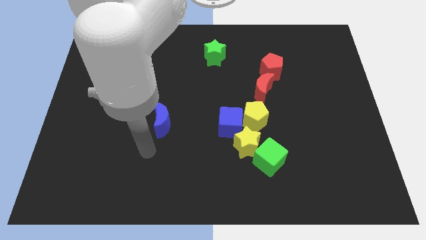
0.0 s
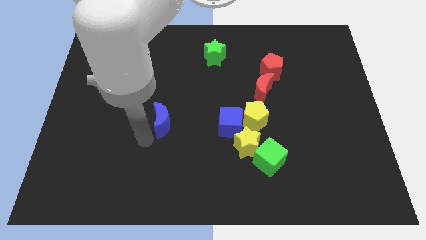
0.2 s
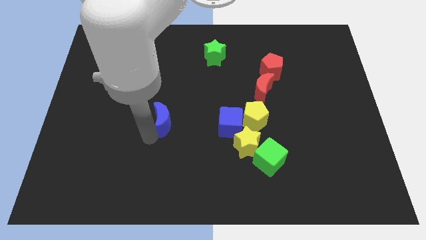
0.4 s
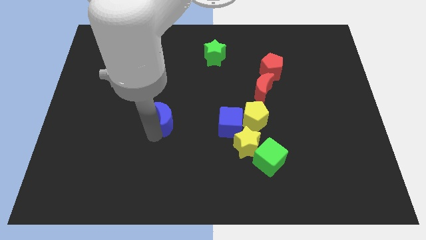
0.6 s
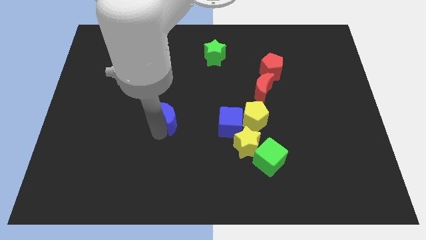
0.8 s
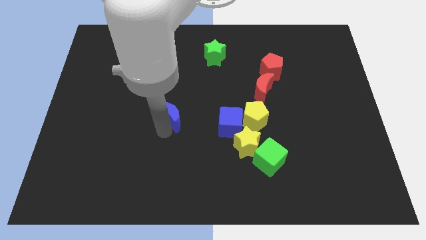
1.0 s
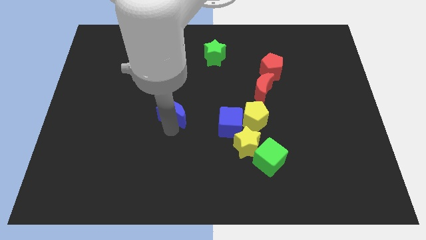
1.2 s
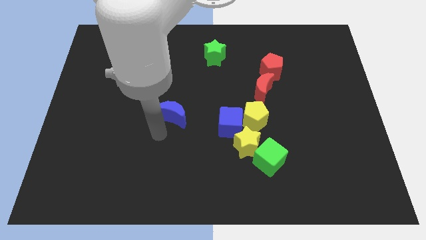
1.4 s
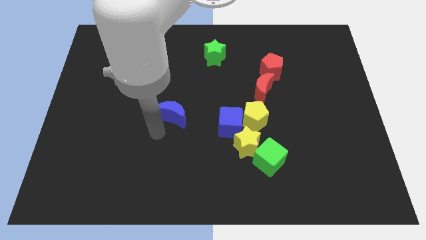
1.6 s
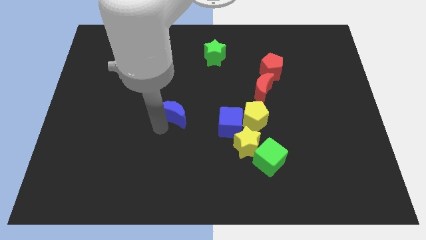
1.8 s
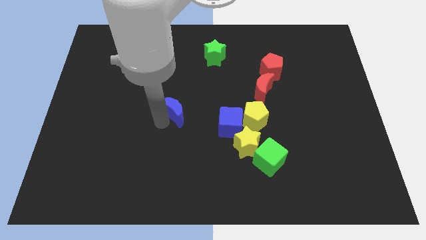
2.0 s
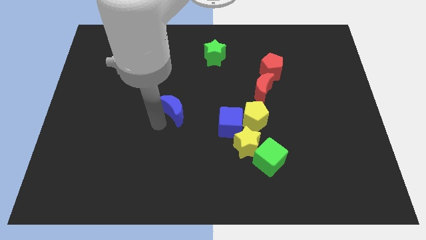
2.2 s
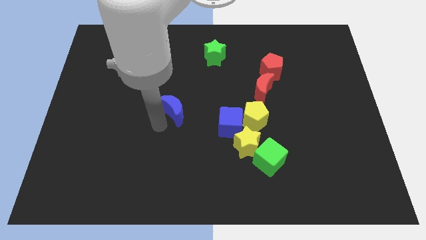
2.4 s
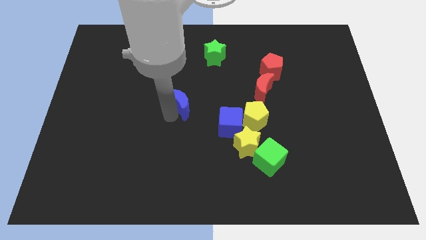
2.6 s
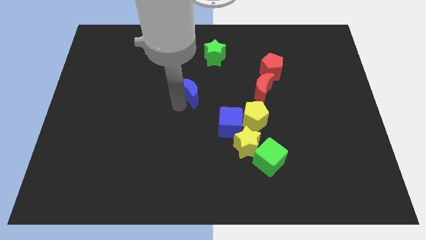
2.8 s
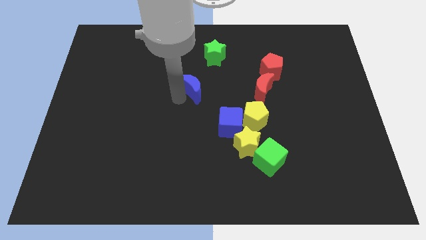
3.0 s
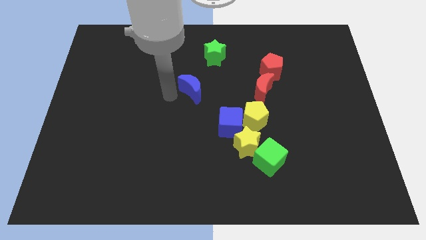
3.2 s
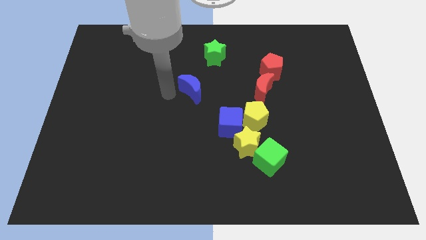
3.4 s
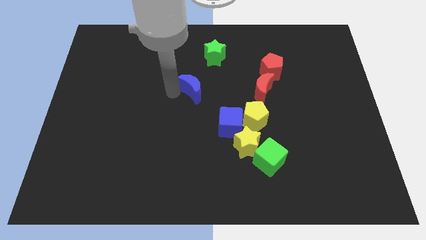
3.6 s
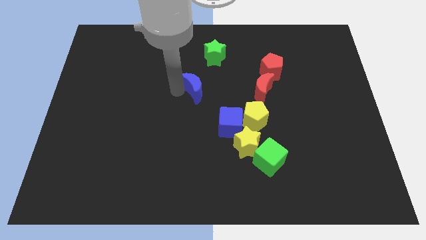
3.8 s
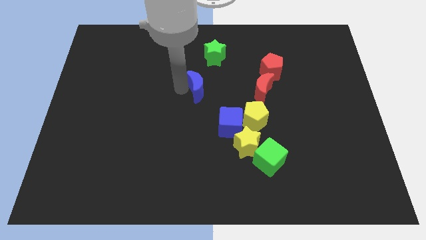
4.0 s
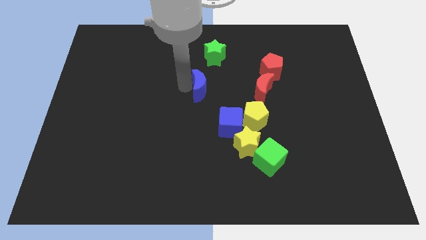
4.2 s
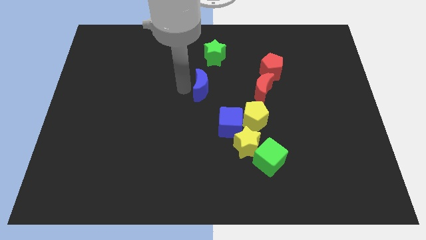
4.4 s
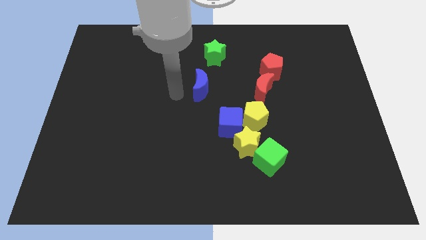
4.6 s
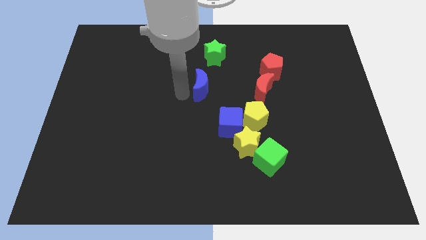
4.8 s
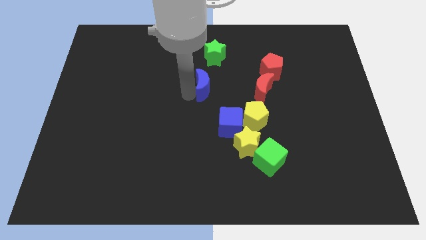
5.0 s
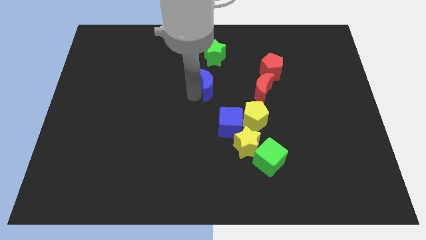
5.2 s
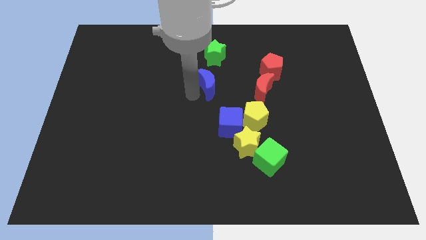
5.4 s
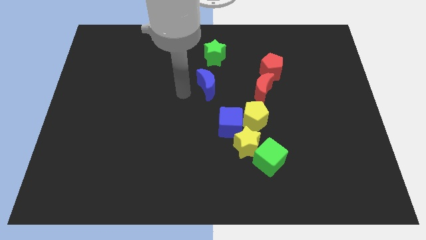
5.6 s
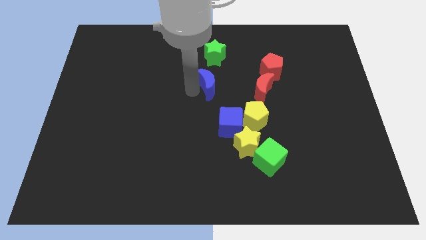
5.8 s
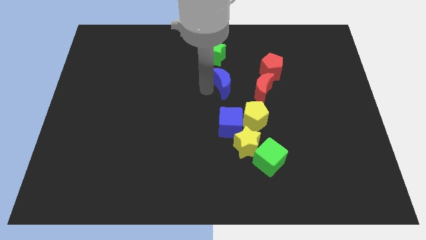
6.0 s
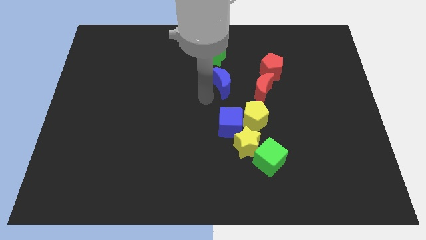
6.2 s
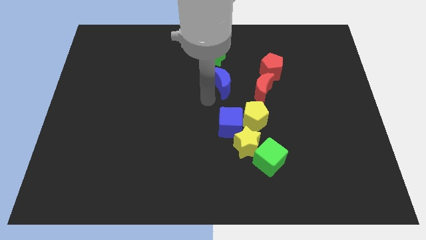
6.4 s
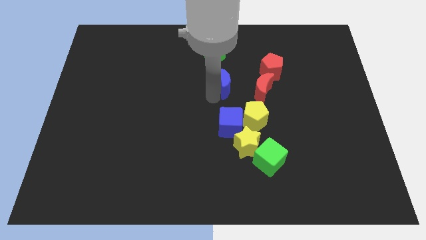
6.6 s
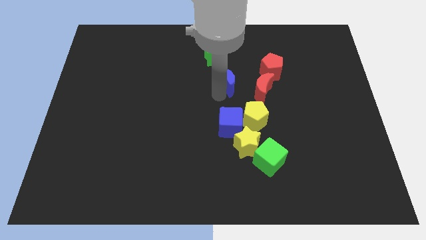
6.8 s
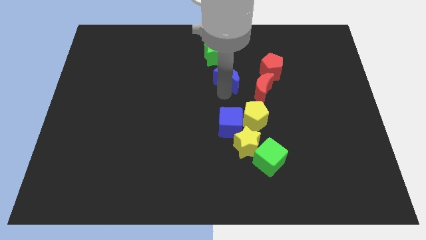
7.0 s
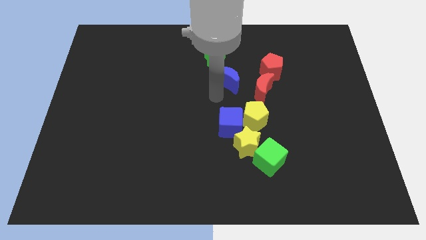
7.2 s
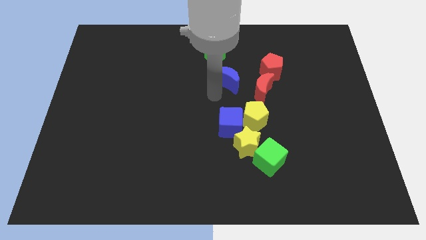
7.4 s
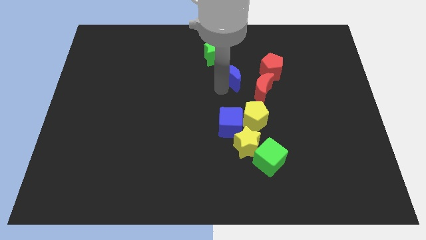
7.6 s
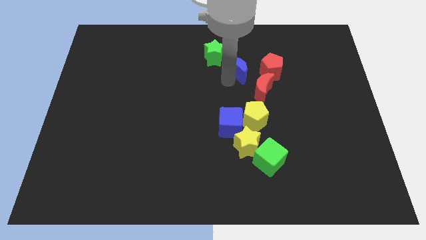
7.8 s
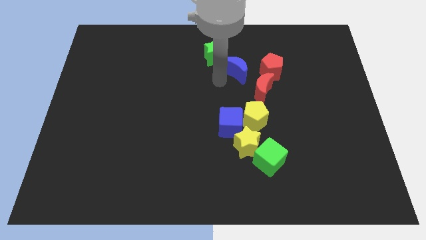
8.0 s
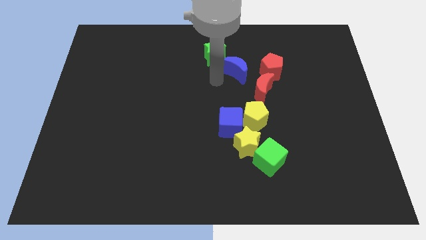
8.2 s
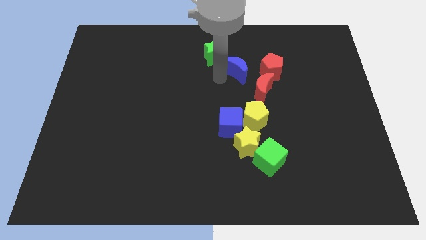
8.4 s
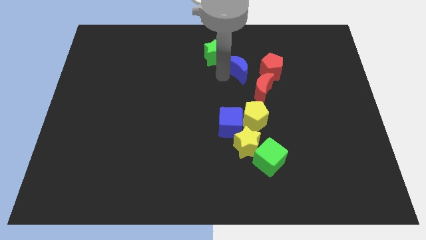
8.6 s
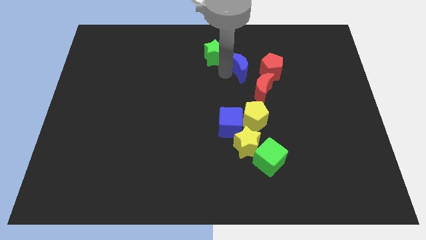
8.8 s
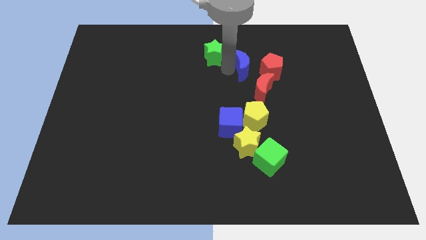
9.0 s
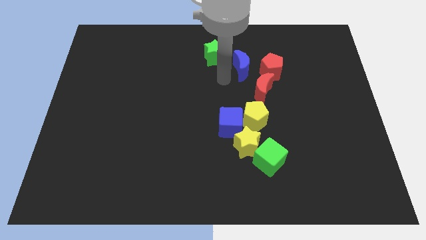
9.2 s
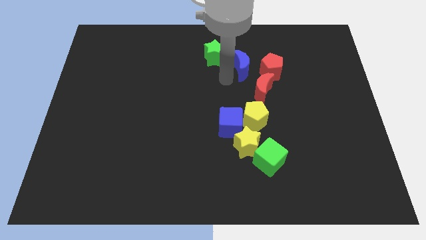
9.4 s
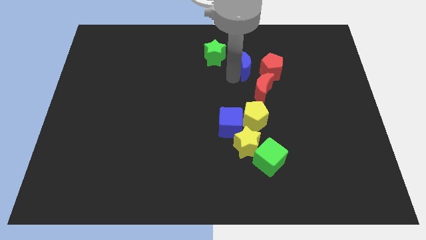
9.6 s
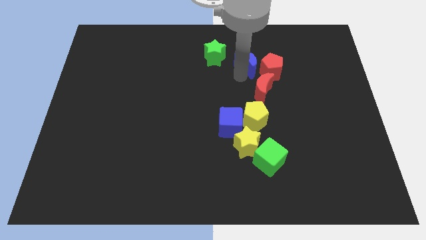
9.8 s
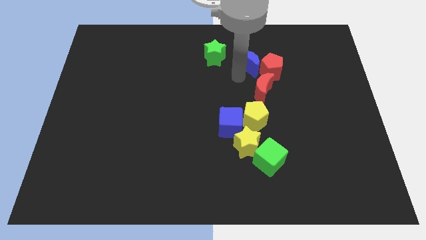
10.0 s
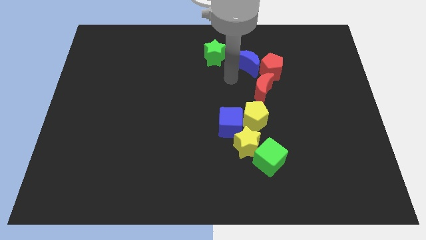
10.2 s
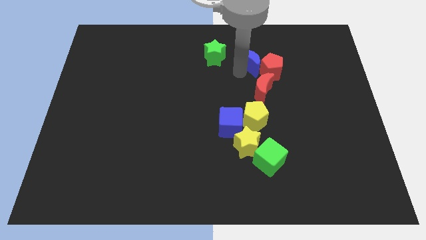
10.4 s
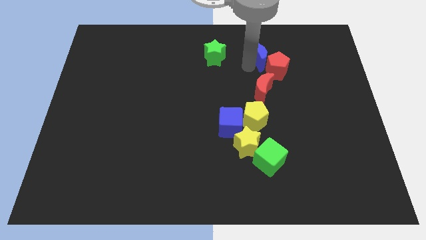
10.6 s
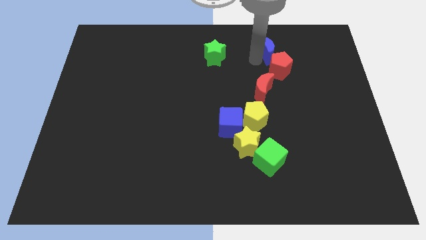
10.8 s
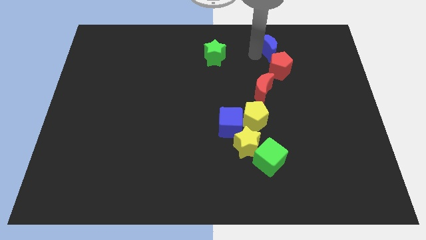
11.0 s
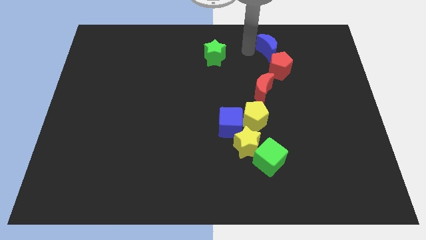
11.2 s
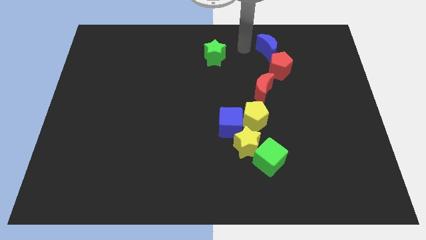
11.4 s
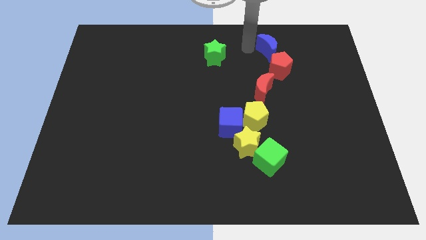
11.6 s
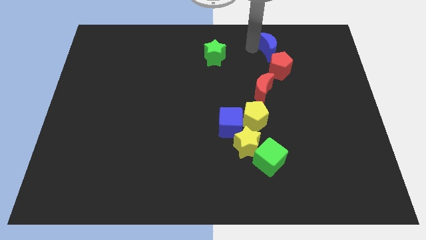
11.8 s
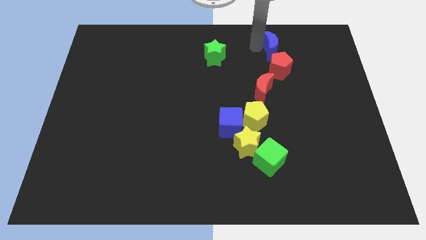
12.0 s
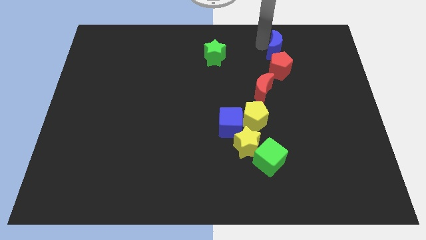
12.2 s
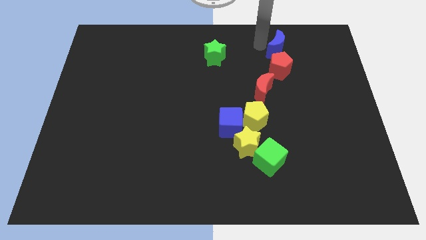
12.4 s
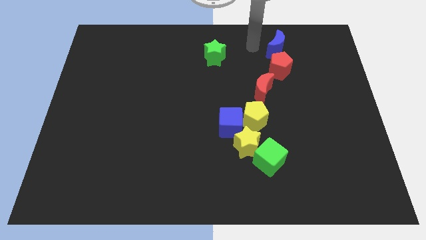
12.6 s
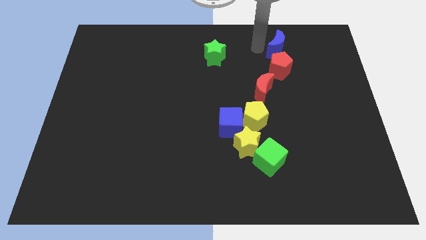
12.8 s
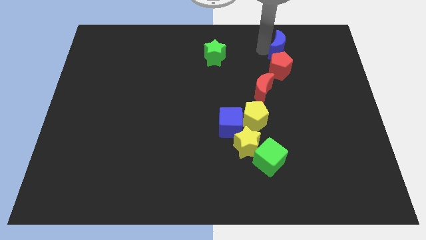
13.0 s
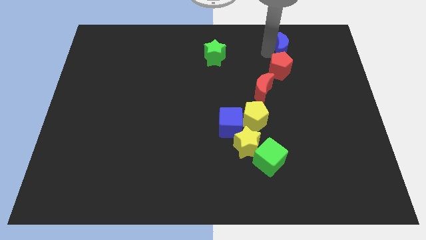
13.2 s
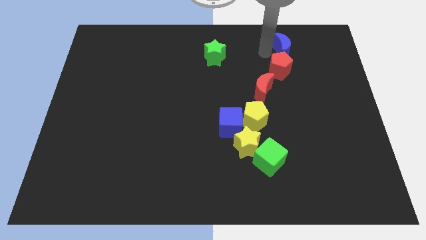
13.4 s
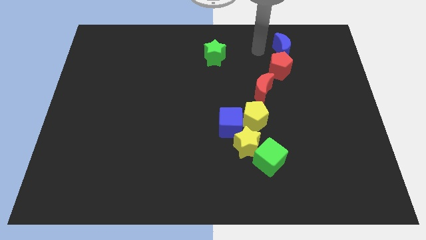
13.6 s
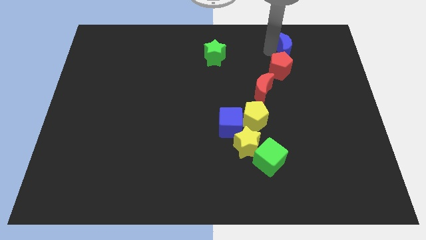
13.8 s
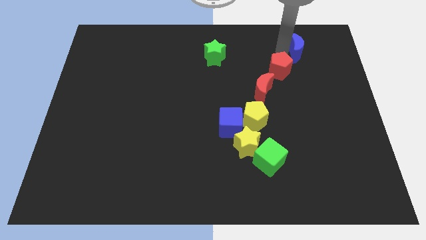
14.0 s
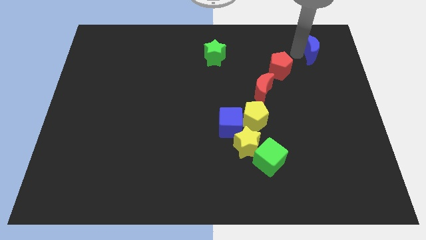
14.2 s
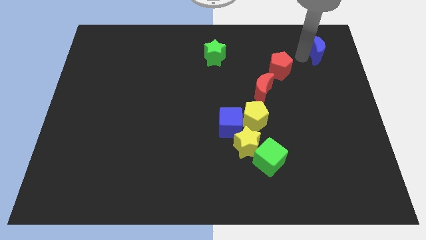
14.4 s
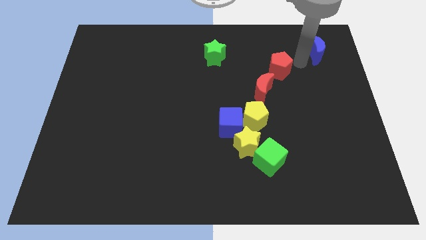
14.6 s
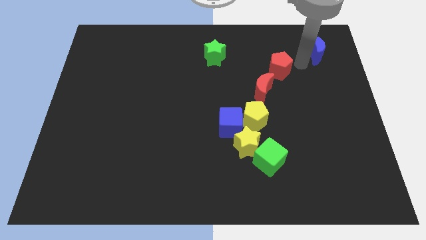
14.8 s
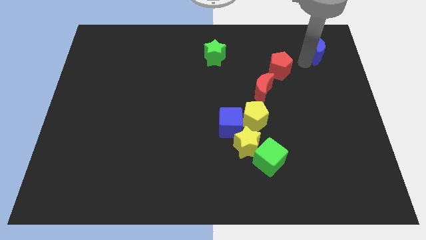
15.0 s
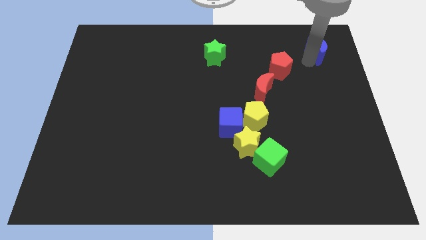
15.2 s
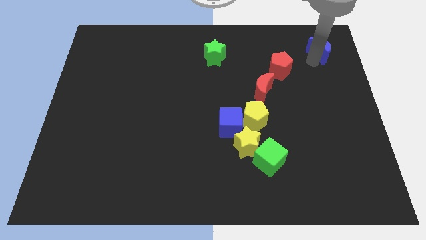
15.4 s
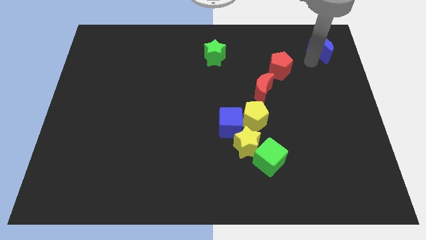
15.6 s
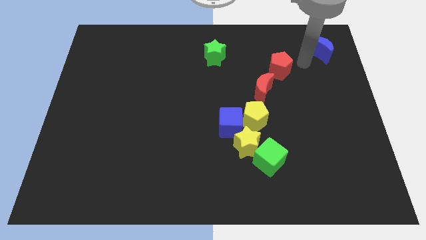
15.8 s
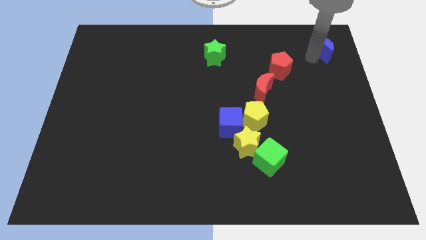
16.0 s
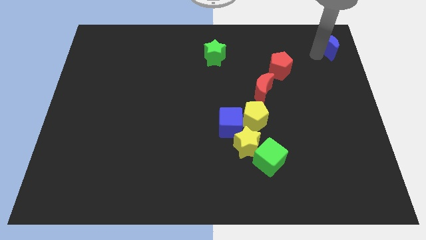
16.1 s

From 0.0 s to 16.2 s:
put the blue moon to the top right
